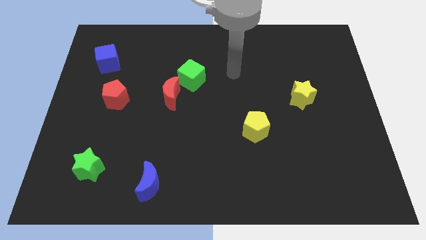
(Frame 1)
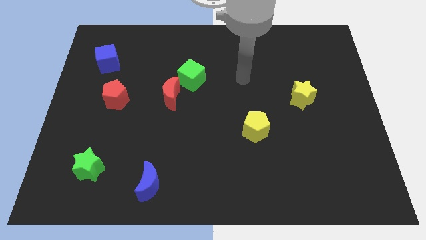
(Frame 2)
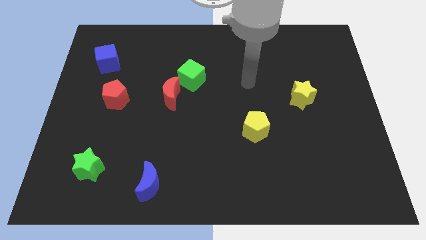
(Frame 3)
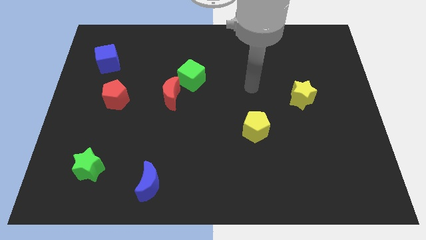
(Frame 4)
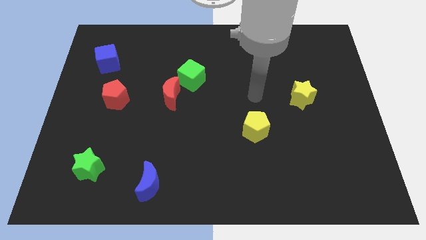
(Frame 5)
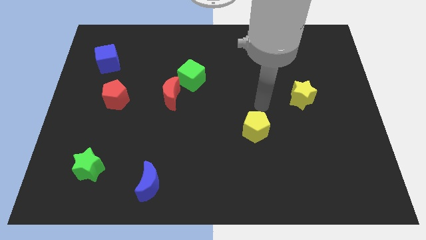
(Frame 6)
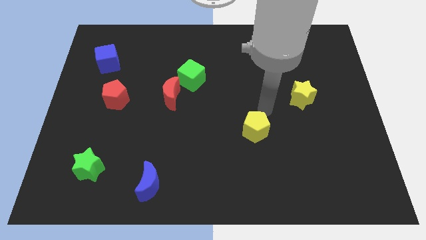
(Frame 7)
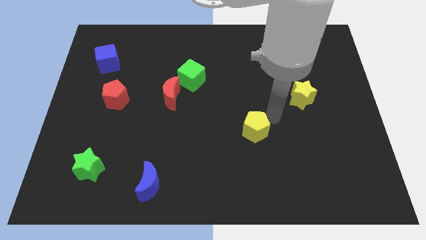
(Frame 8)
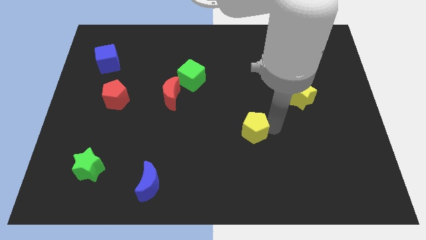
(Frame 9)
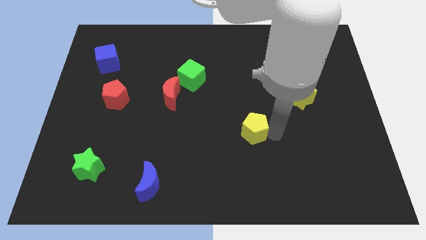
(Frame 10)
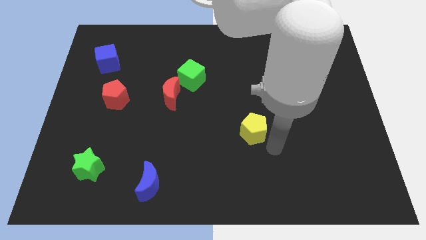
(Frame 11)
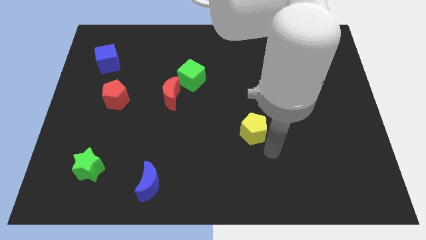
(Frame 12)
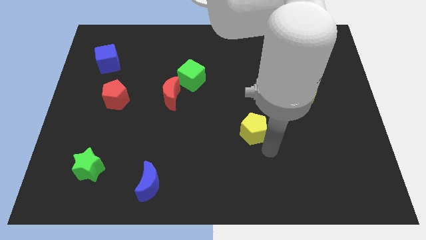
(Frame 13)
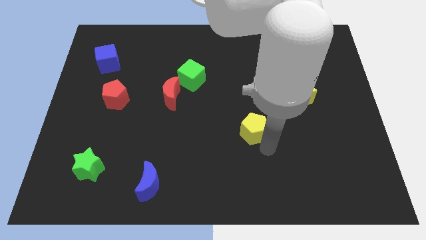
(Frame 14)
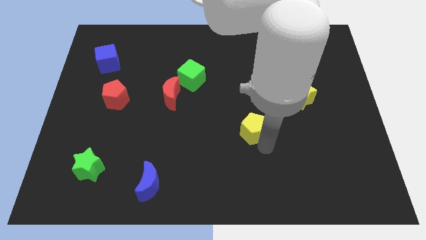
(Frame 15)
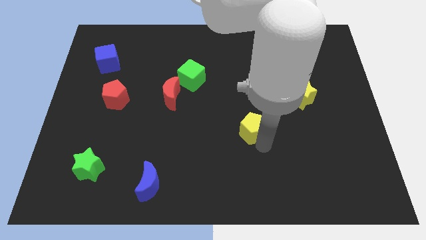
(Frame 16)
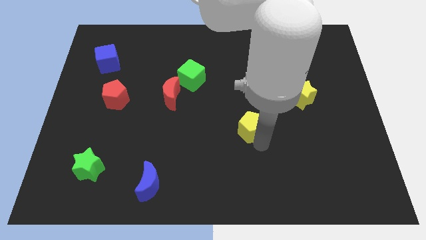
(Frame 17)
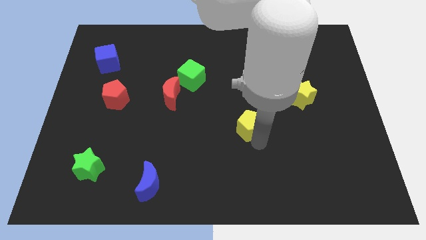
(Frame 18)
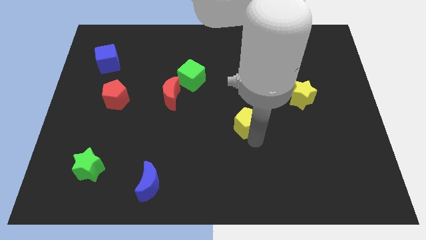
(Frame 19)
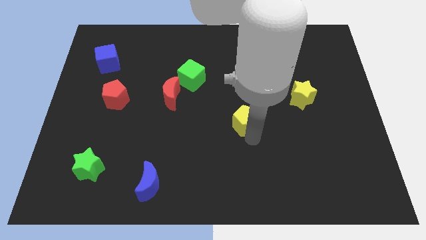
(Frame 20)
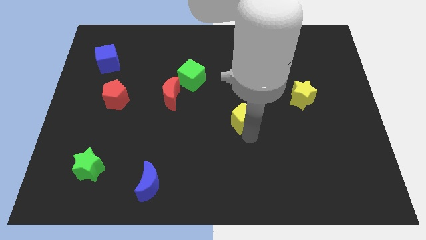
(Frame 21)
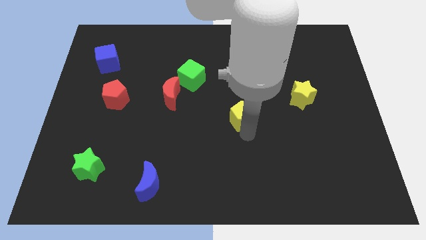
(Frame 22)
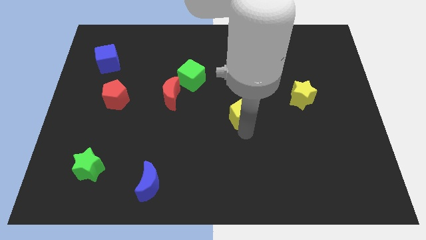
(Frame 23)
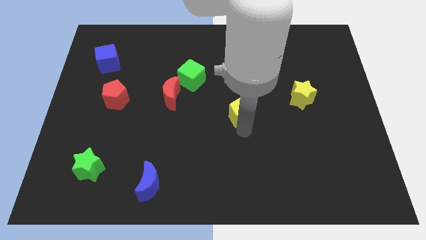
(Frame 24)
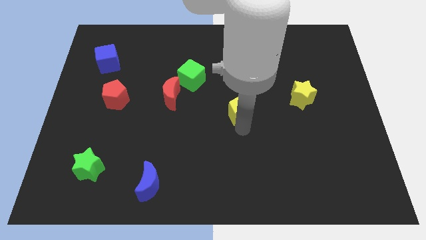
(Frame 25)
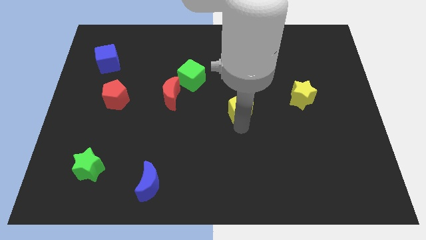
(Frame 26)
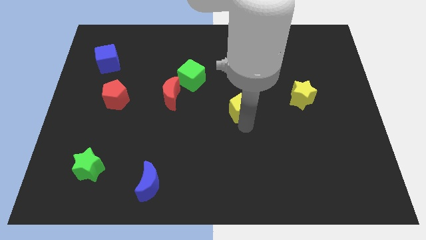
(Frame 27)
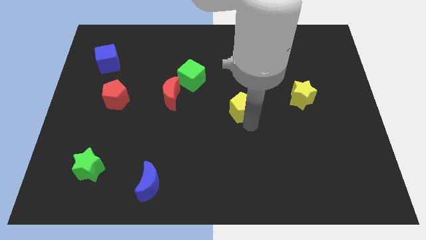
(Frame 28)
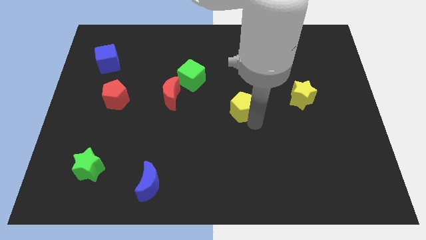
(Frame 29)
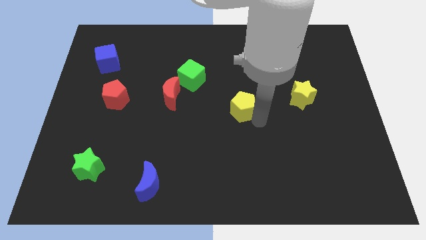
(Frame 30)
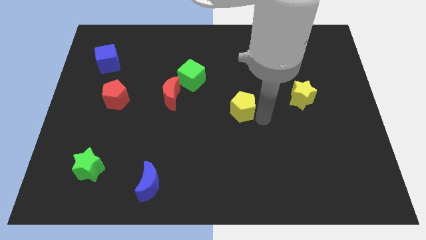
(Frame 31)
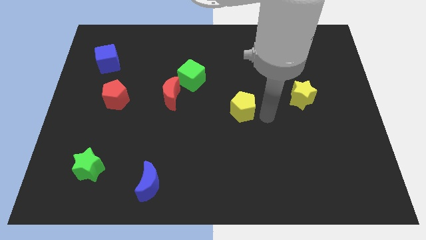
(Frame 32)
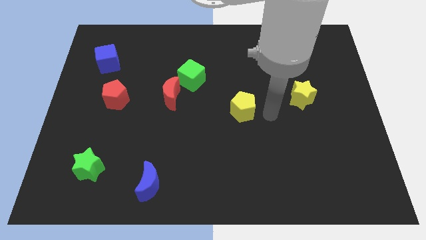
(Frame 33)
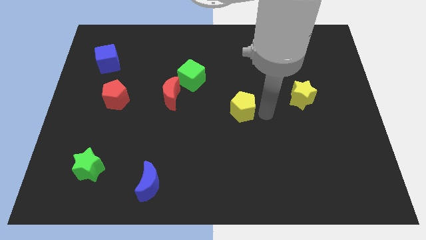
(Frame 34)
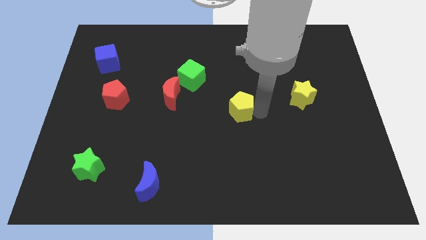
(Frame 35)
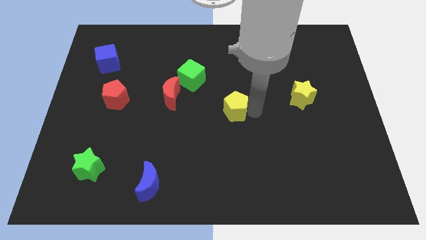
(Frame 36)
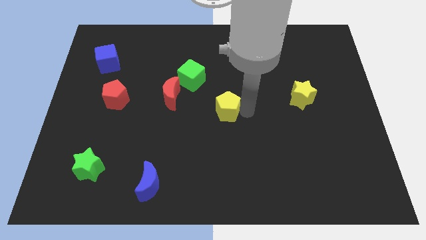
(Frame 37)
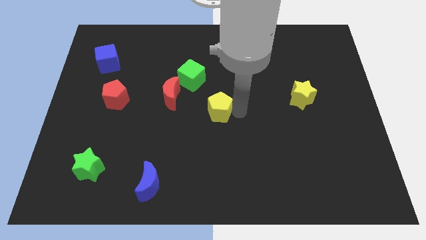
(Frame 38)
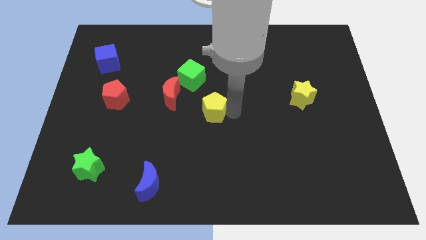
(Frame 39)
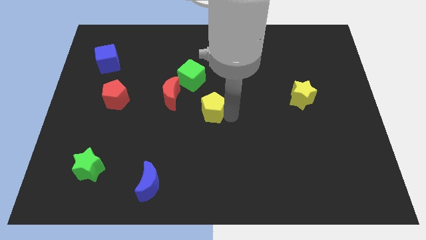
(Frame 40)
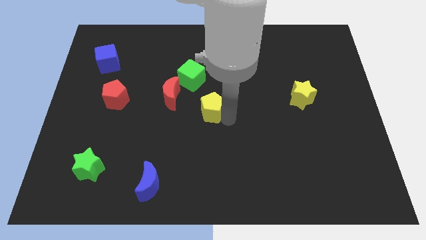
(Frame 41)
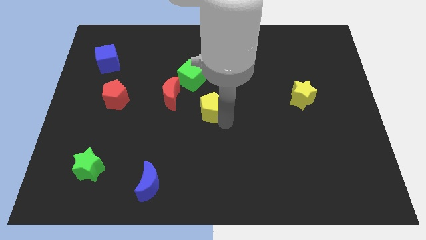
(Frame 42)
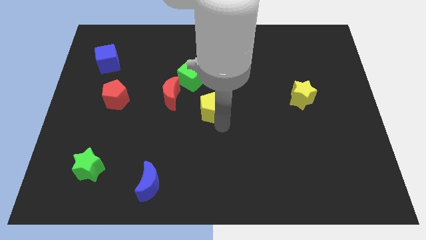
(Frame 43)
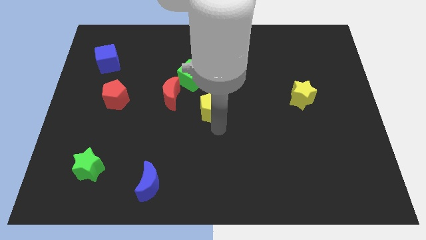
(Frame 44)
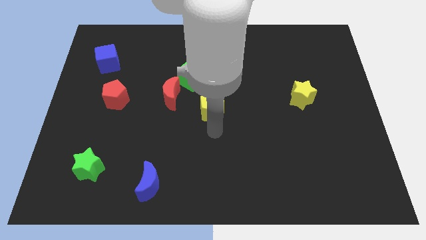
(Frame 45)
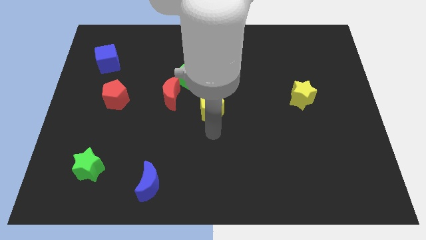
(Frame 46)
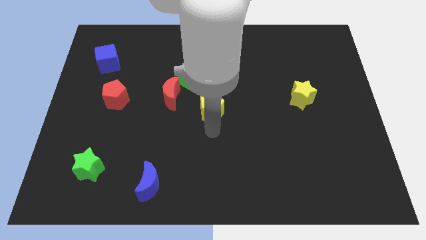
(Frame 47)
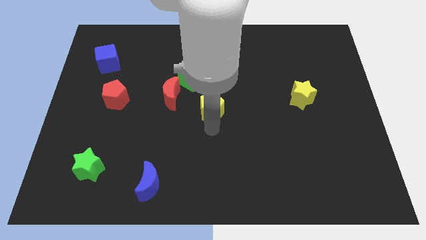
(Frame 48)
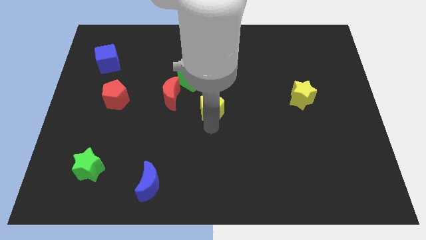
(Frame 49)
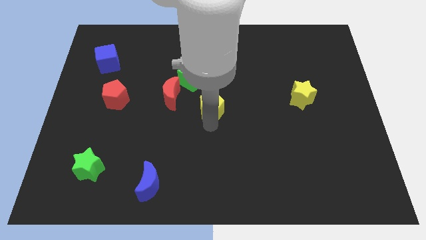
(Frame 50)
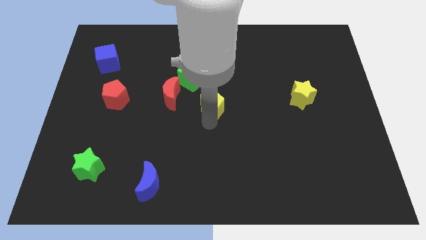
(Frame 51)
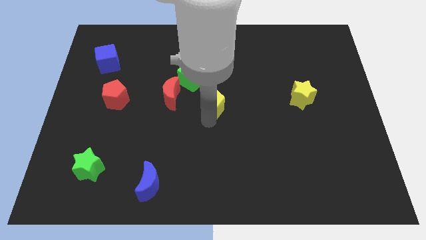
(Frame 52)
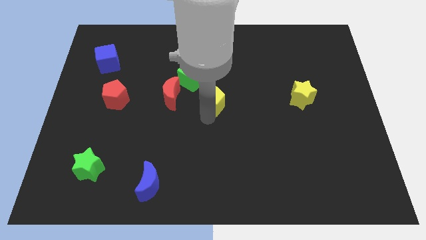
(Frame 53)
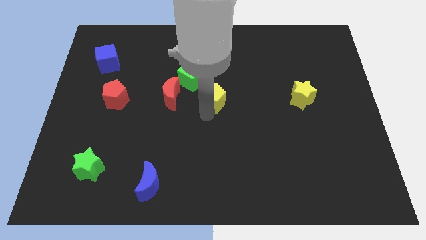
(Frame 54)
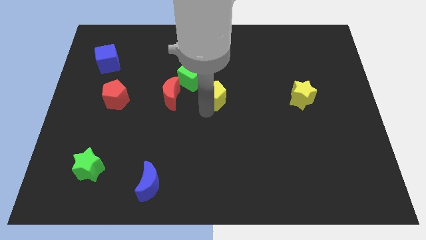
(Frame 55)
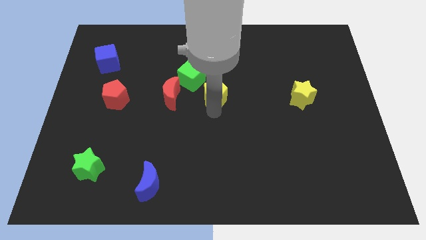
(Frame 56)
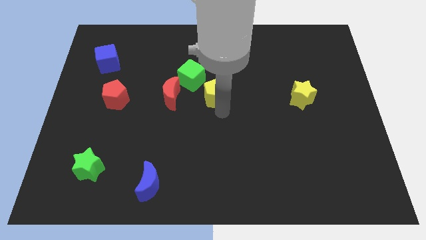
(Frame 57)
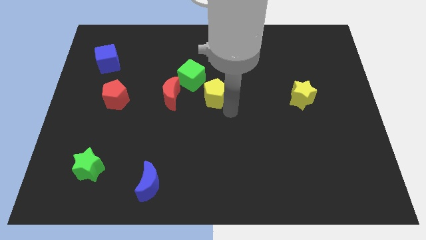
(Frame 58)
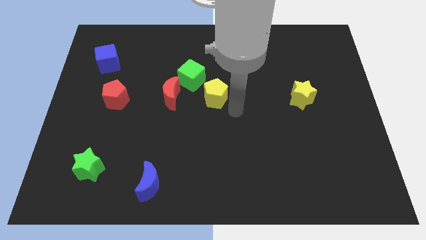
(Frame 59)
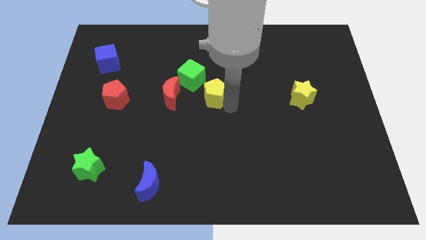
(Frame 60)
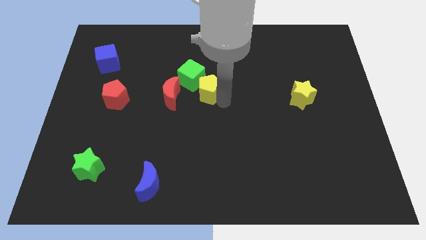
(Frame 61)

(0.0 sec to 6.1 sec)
slide the yellow pentagon close to the green cube

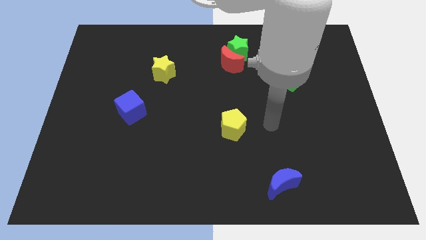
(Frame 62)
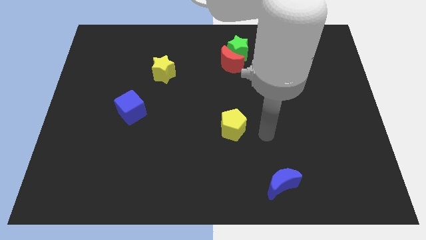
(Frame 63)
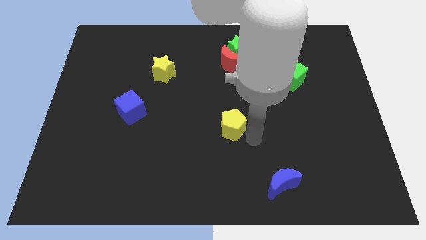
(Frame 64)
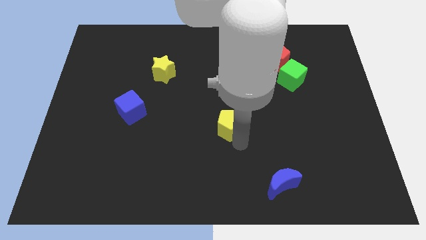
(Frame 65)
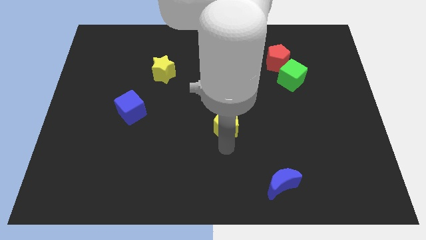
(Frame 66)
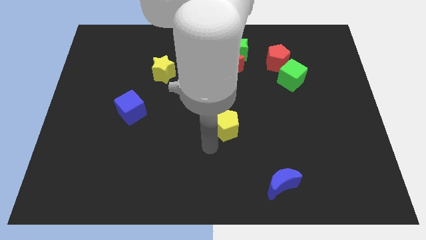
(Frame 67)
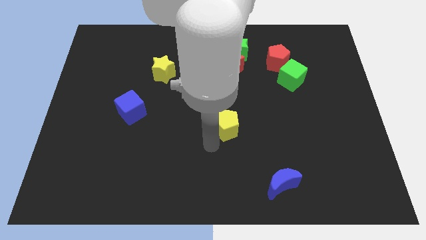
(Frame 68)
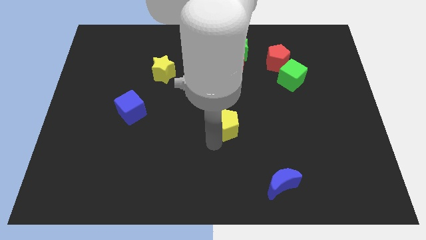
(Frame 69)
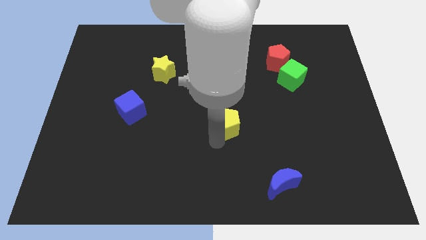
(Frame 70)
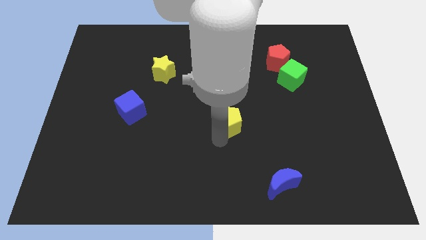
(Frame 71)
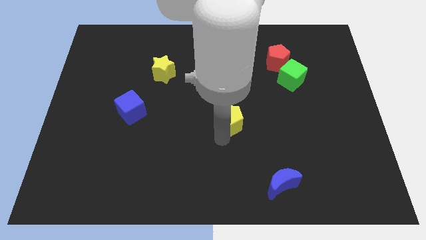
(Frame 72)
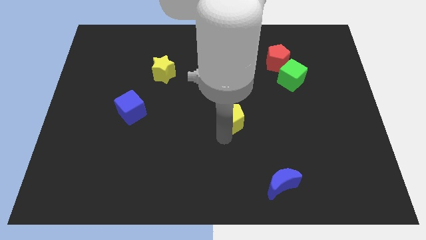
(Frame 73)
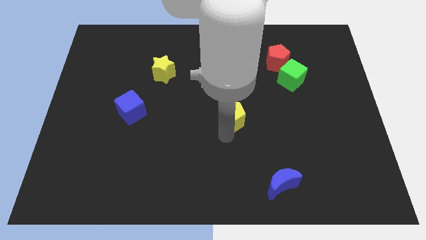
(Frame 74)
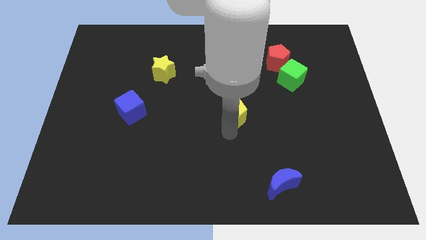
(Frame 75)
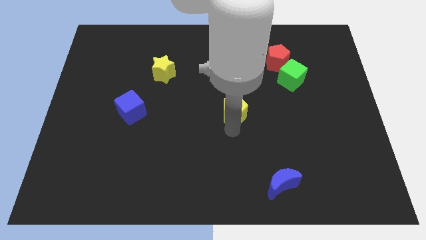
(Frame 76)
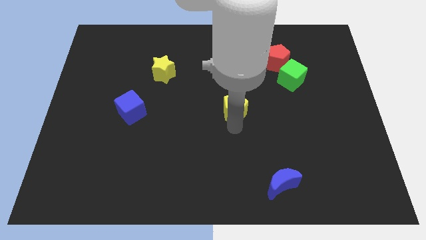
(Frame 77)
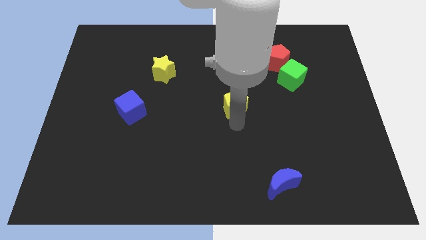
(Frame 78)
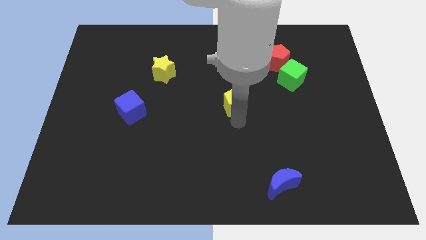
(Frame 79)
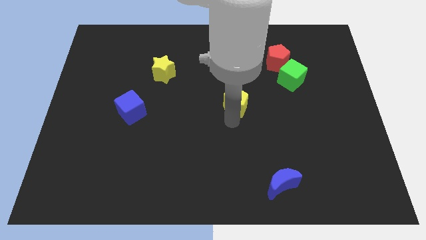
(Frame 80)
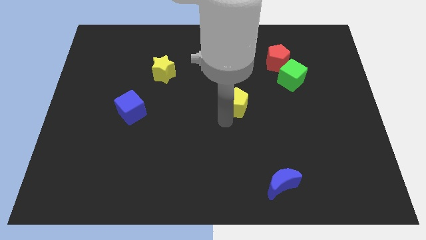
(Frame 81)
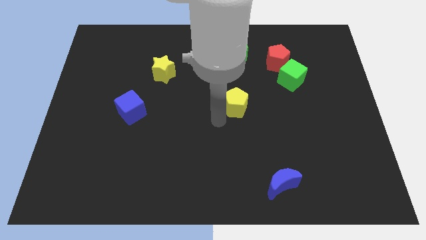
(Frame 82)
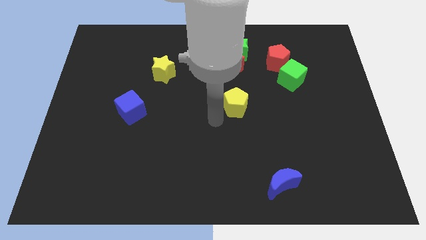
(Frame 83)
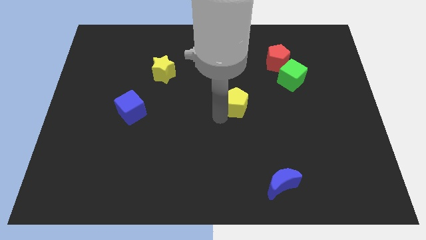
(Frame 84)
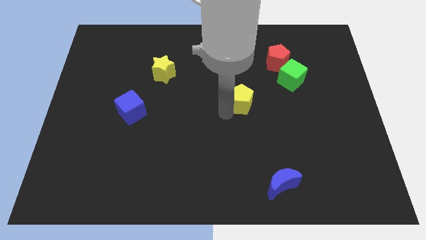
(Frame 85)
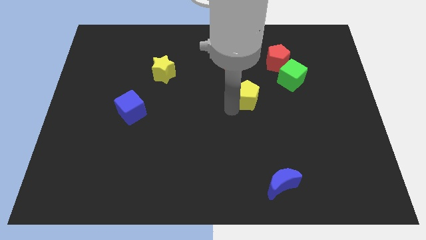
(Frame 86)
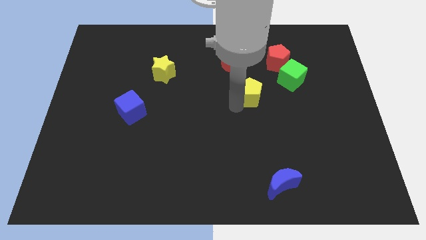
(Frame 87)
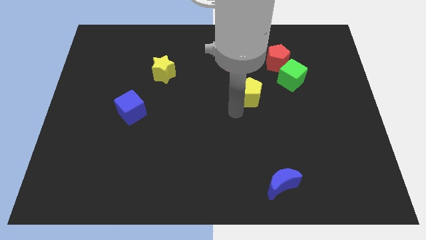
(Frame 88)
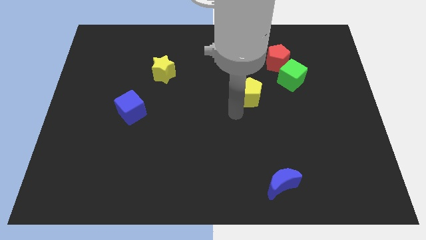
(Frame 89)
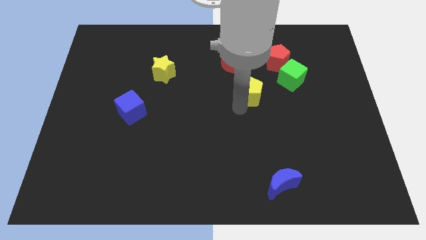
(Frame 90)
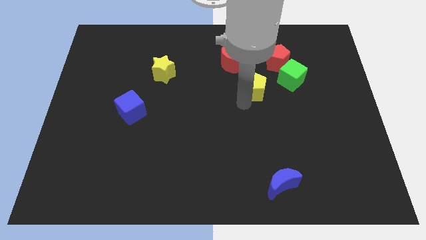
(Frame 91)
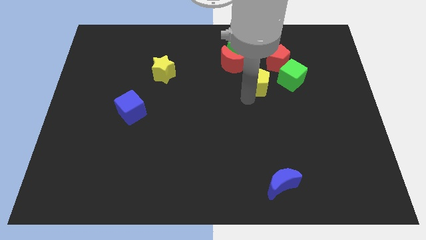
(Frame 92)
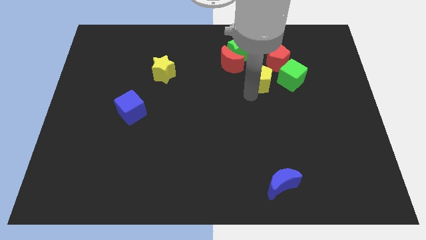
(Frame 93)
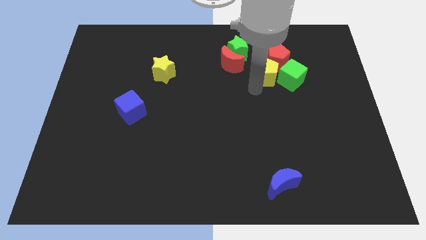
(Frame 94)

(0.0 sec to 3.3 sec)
move the yellow pentagon towards the red pentagon
